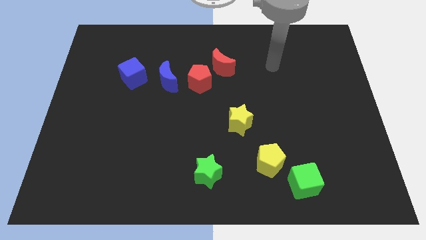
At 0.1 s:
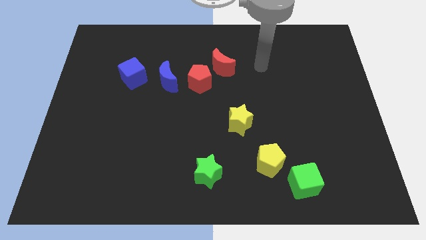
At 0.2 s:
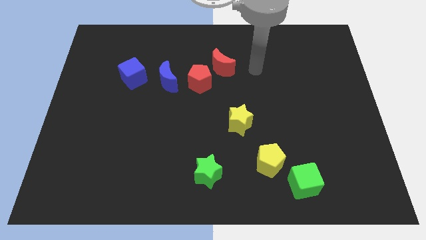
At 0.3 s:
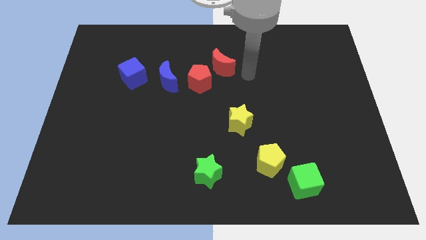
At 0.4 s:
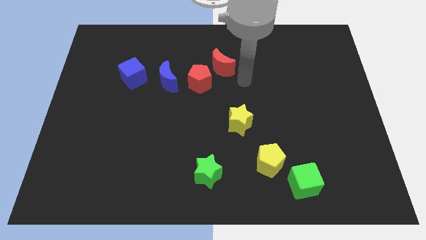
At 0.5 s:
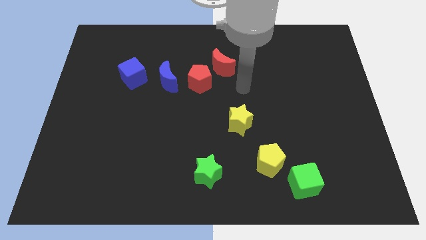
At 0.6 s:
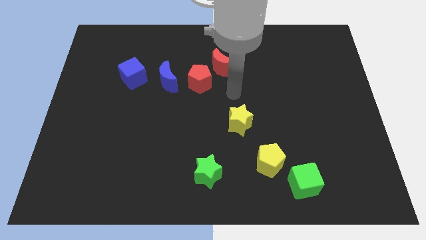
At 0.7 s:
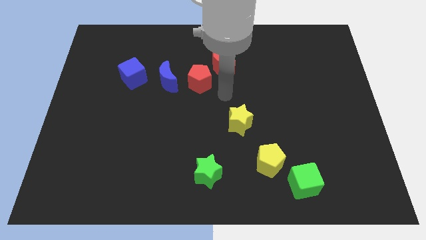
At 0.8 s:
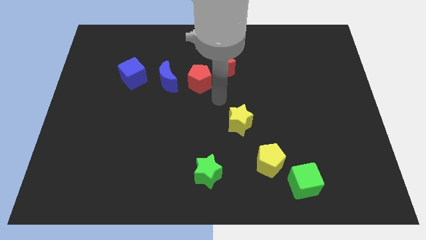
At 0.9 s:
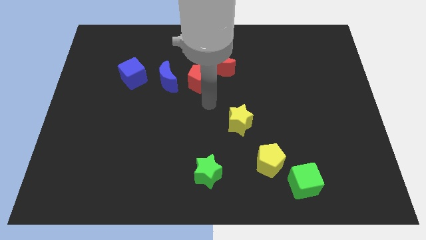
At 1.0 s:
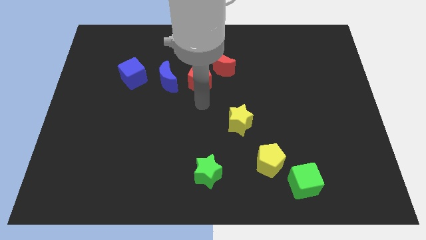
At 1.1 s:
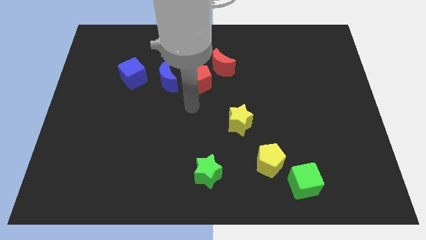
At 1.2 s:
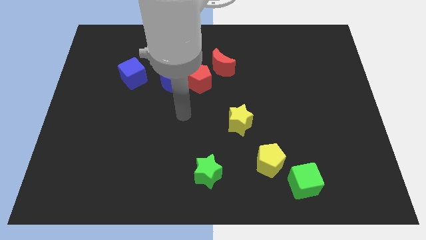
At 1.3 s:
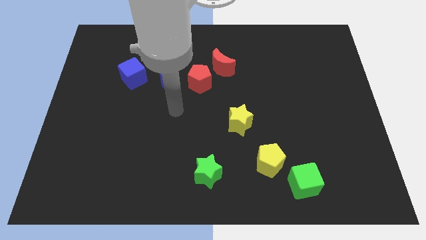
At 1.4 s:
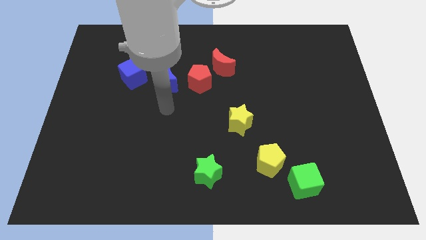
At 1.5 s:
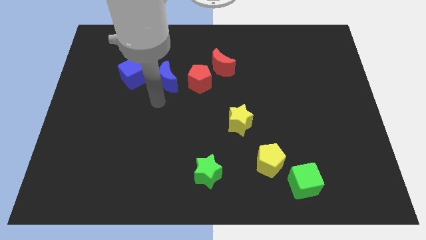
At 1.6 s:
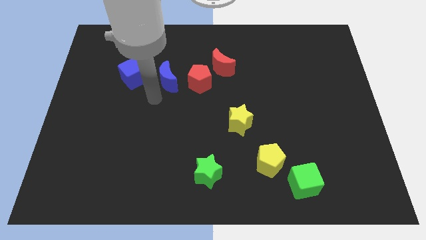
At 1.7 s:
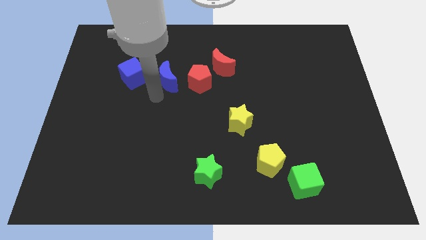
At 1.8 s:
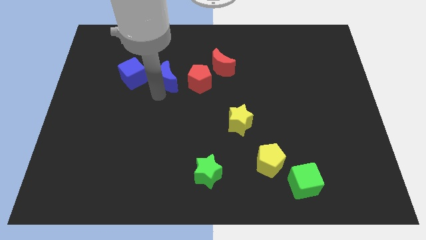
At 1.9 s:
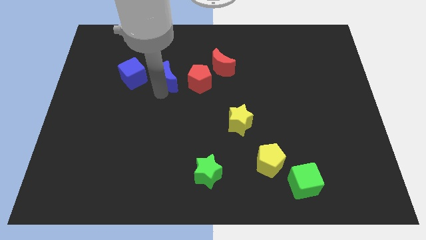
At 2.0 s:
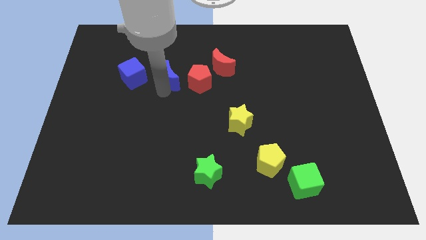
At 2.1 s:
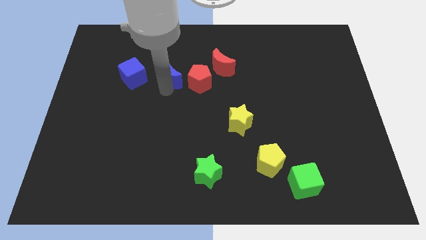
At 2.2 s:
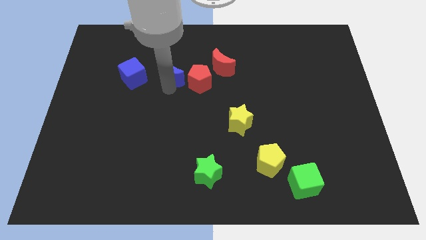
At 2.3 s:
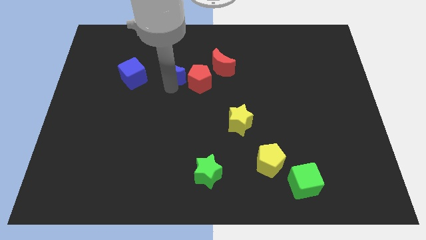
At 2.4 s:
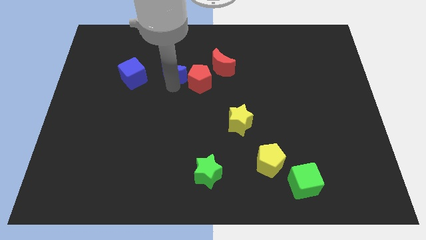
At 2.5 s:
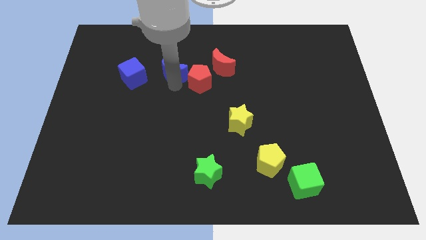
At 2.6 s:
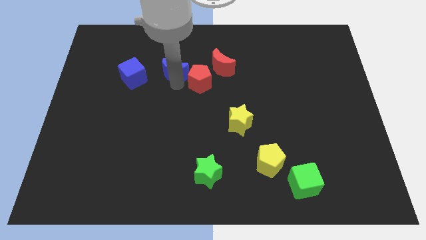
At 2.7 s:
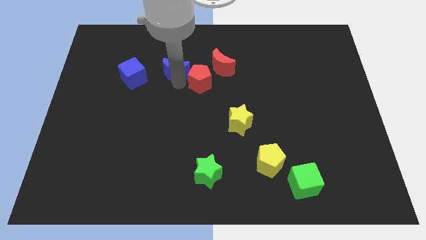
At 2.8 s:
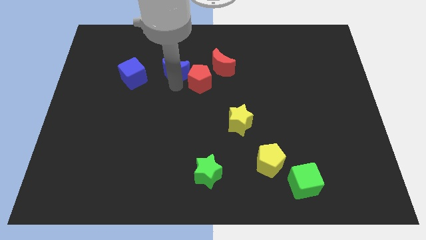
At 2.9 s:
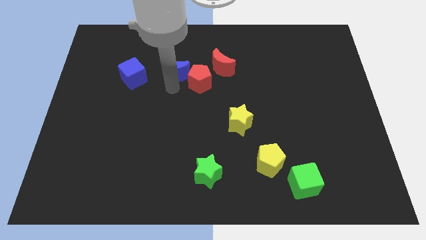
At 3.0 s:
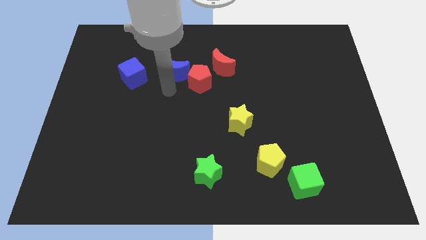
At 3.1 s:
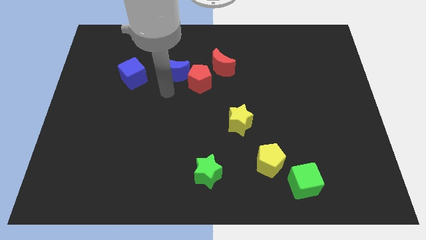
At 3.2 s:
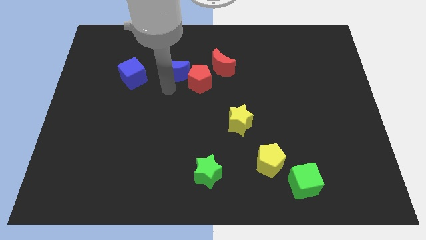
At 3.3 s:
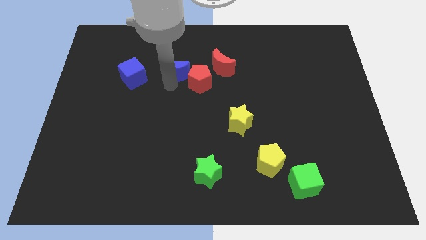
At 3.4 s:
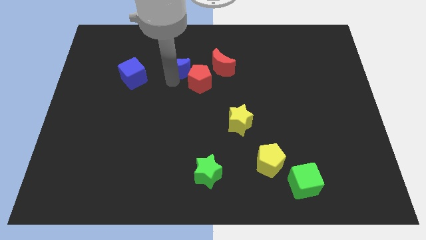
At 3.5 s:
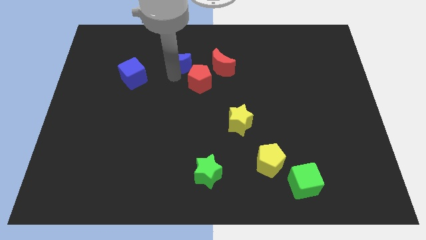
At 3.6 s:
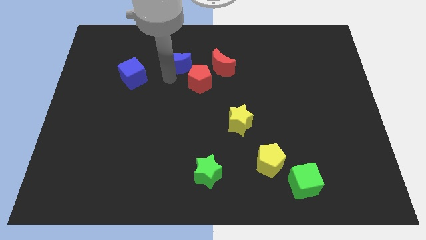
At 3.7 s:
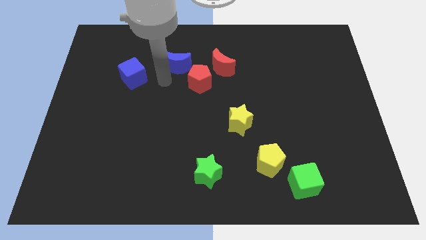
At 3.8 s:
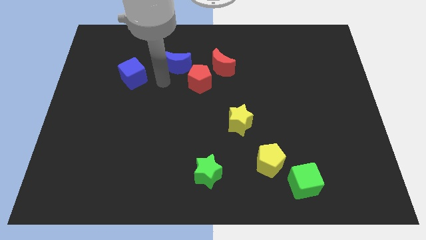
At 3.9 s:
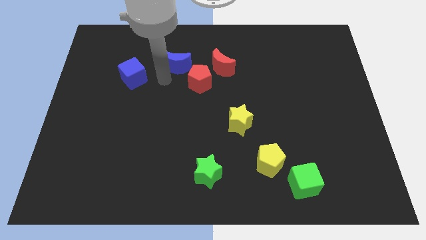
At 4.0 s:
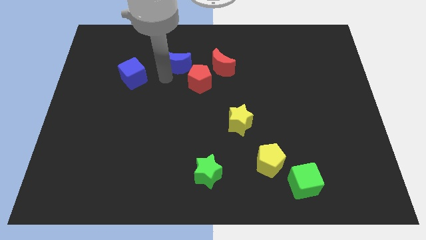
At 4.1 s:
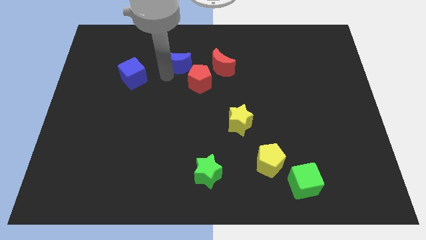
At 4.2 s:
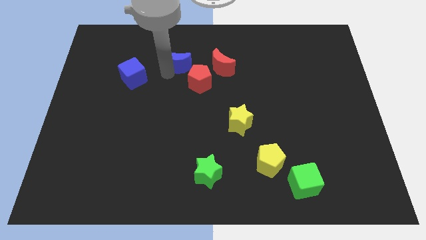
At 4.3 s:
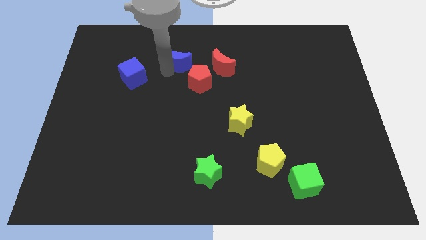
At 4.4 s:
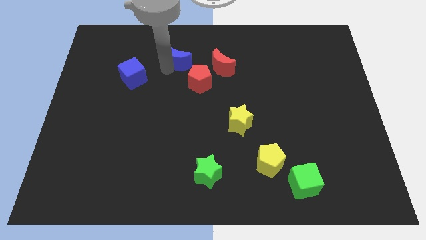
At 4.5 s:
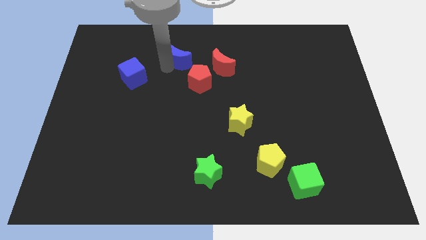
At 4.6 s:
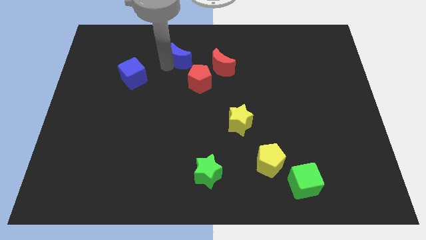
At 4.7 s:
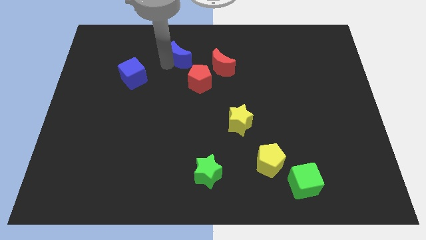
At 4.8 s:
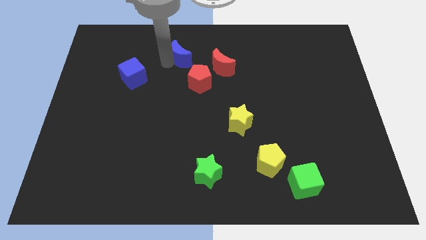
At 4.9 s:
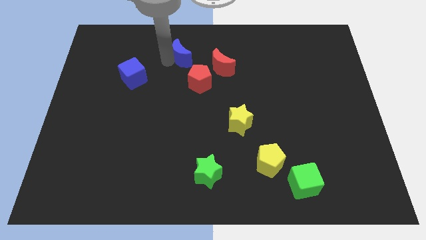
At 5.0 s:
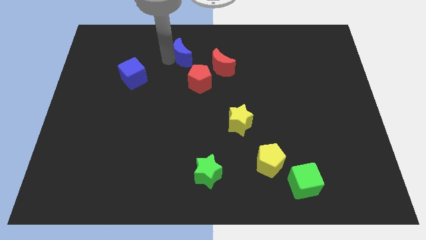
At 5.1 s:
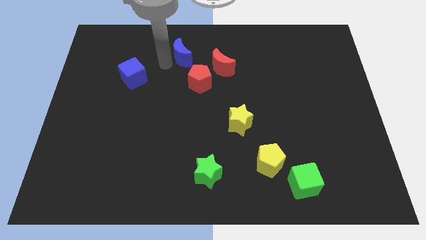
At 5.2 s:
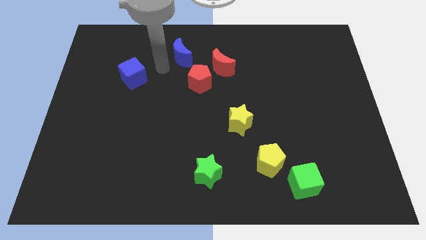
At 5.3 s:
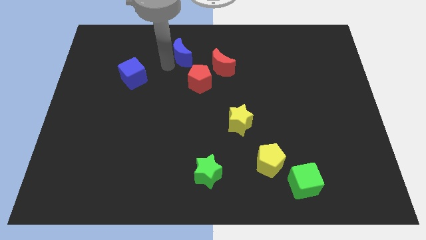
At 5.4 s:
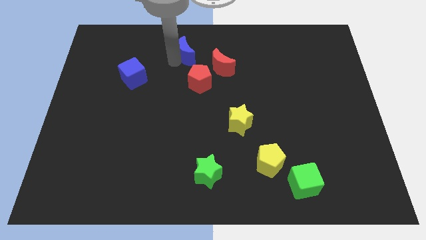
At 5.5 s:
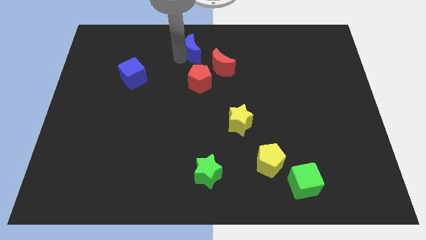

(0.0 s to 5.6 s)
move the blue moon to the top

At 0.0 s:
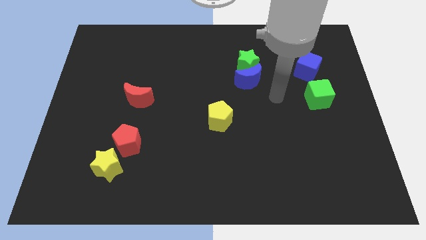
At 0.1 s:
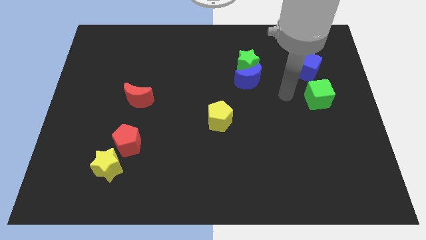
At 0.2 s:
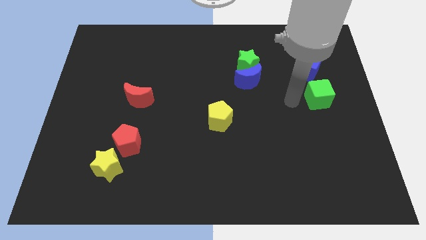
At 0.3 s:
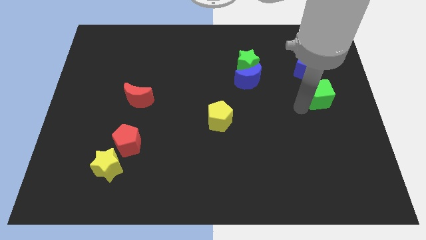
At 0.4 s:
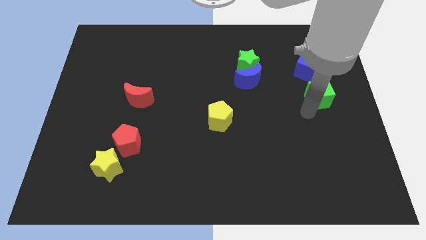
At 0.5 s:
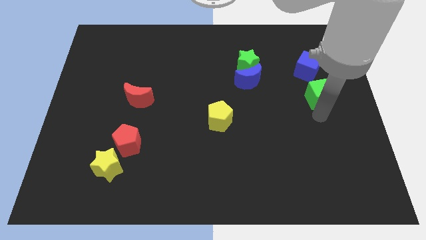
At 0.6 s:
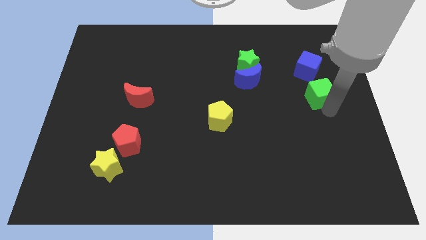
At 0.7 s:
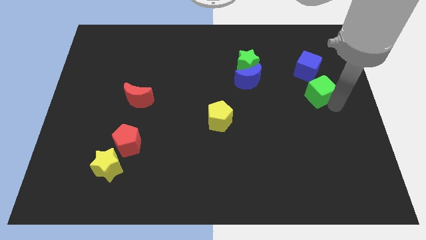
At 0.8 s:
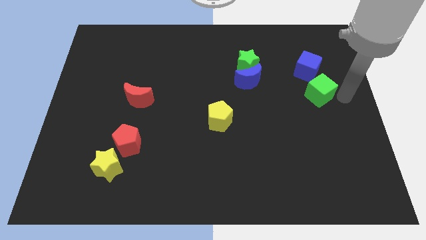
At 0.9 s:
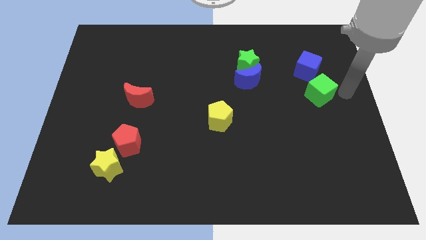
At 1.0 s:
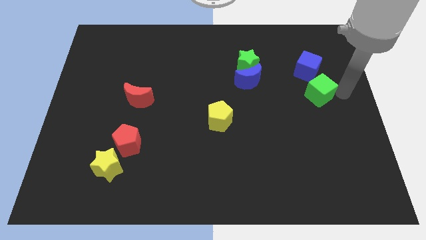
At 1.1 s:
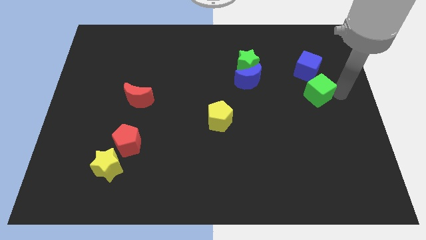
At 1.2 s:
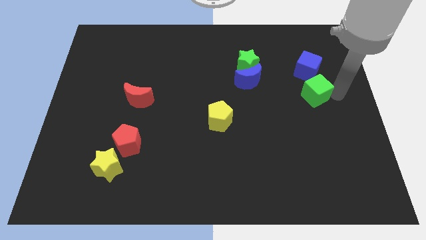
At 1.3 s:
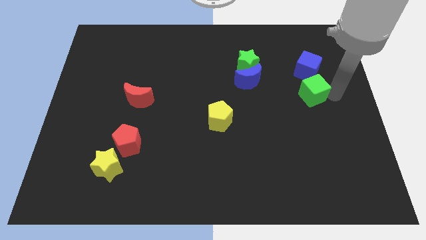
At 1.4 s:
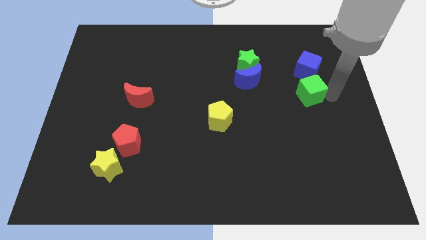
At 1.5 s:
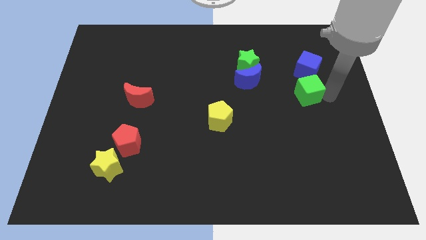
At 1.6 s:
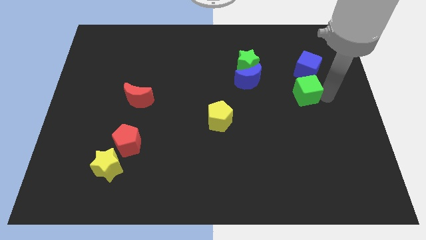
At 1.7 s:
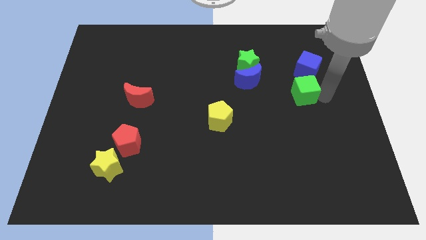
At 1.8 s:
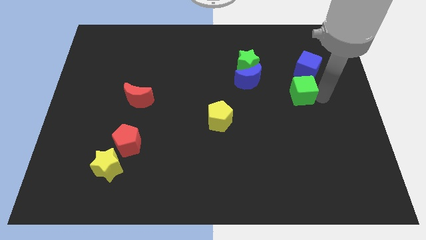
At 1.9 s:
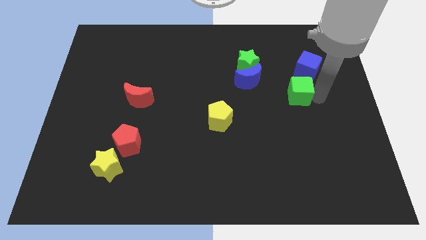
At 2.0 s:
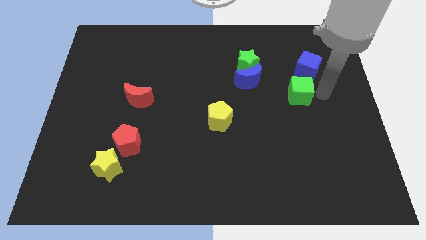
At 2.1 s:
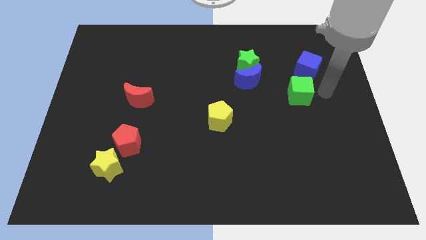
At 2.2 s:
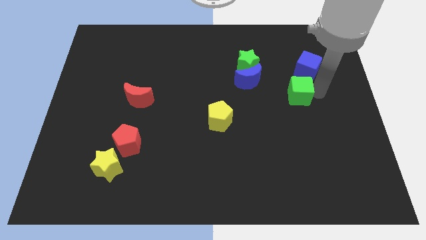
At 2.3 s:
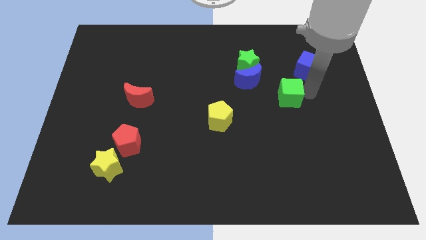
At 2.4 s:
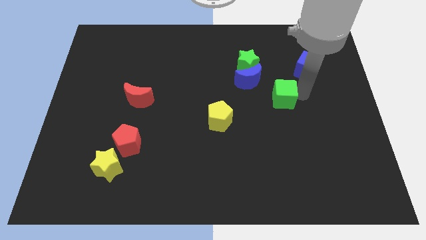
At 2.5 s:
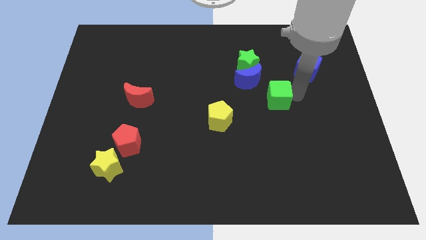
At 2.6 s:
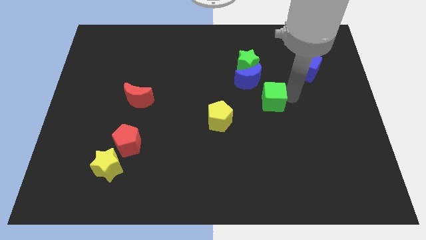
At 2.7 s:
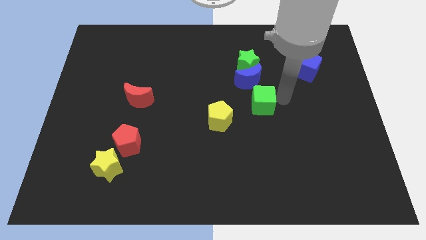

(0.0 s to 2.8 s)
put the green cube to the middle of the board
